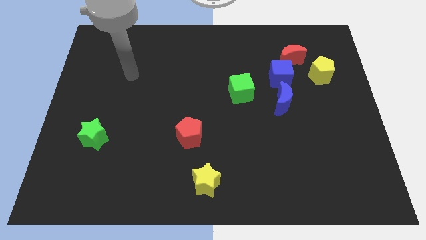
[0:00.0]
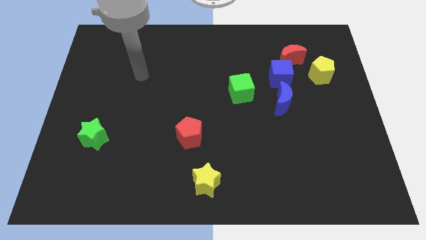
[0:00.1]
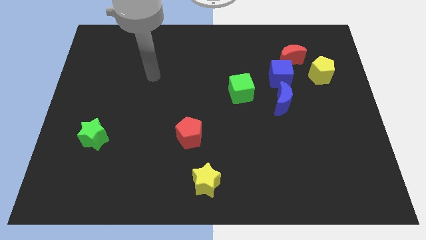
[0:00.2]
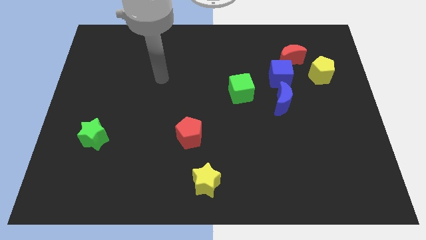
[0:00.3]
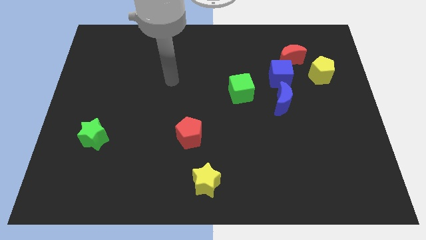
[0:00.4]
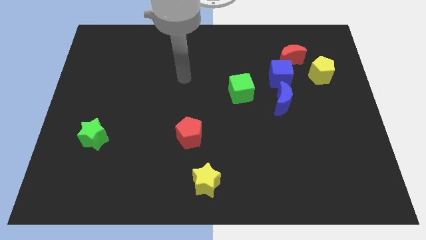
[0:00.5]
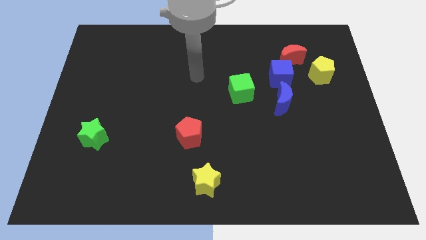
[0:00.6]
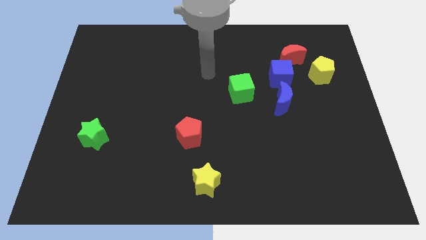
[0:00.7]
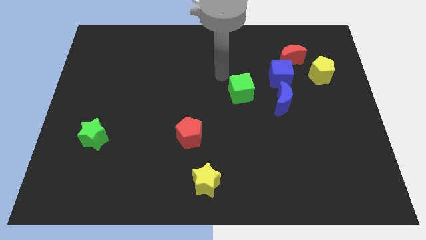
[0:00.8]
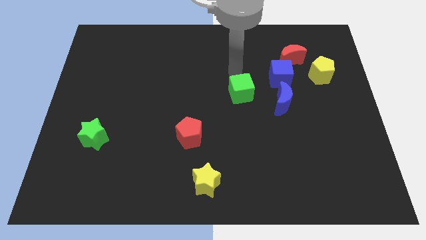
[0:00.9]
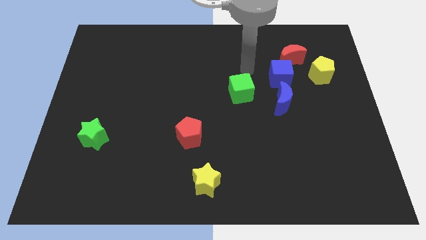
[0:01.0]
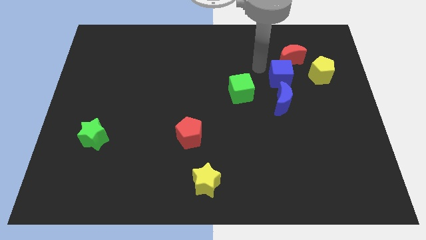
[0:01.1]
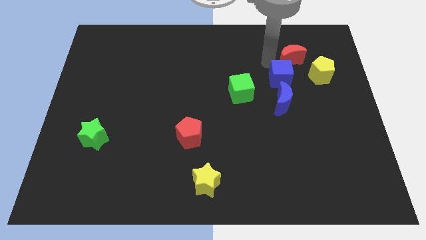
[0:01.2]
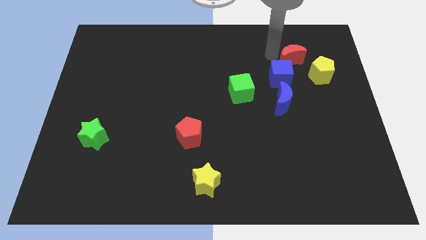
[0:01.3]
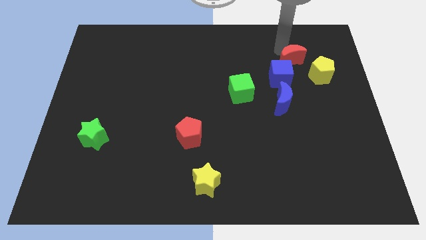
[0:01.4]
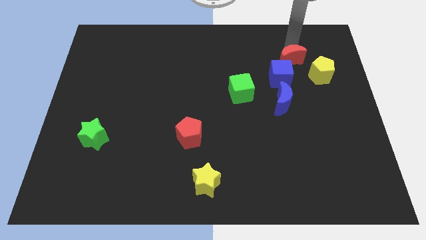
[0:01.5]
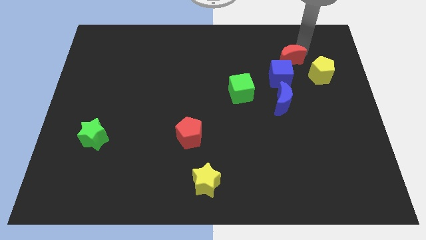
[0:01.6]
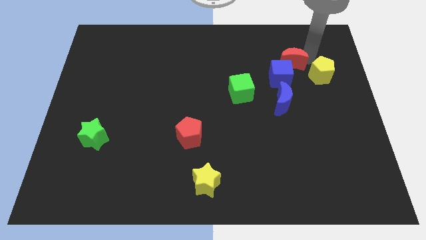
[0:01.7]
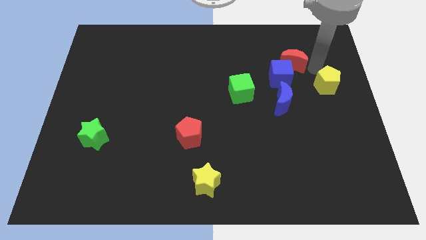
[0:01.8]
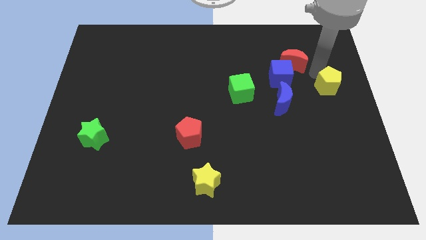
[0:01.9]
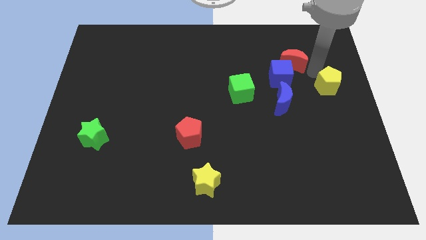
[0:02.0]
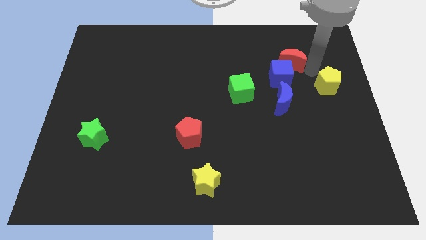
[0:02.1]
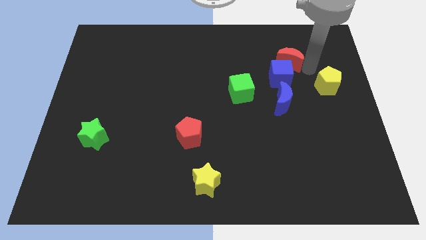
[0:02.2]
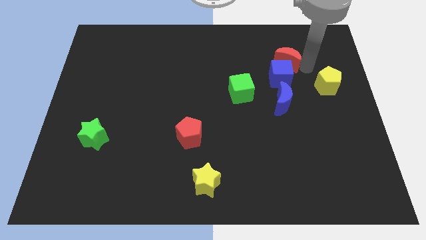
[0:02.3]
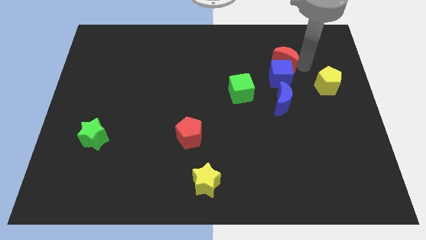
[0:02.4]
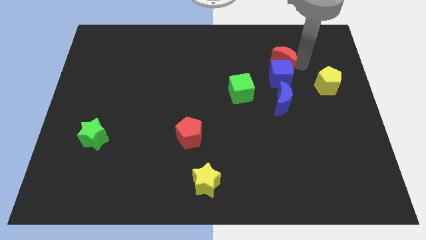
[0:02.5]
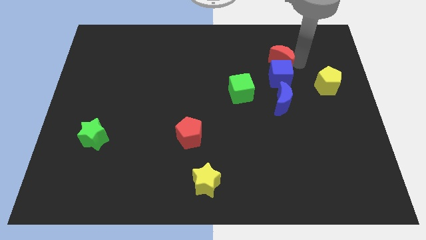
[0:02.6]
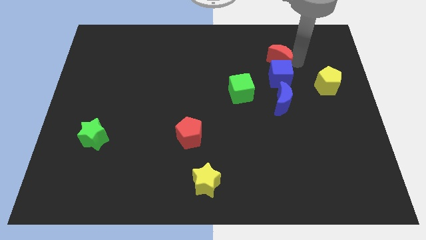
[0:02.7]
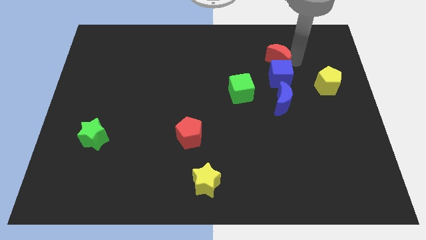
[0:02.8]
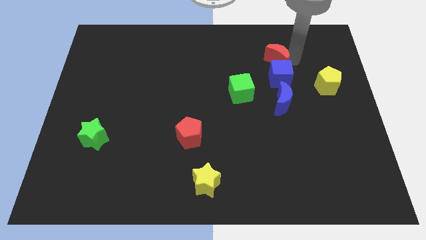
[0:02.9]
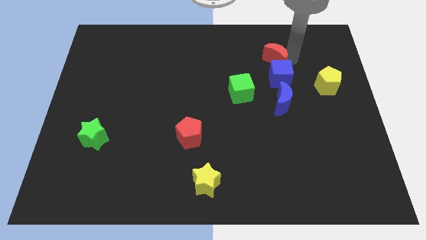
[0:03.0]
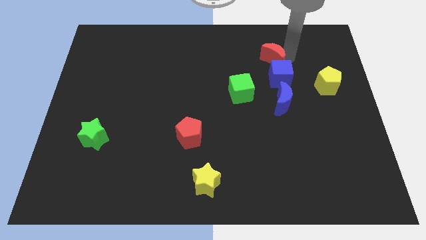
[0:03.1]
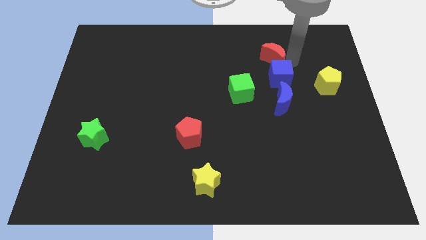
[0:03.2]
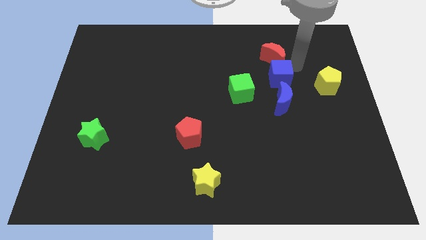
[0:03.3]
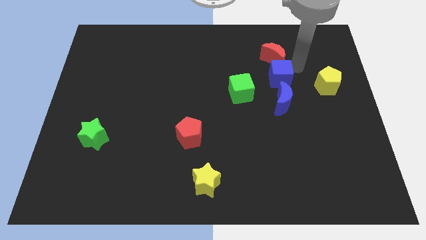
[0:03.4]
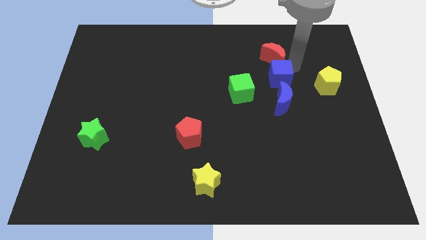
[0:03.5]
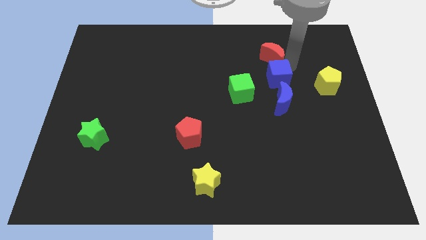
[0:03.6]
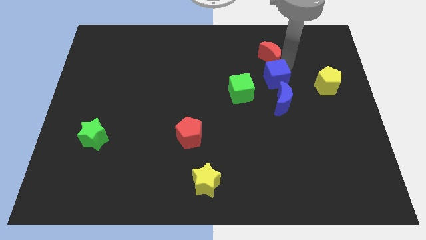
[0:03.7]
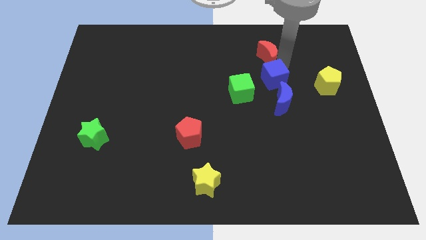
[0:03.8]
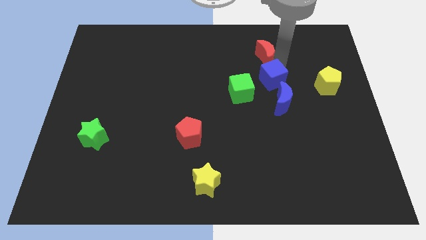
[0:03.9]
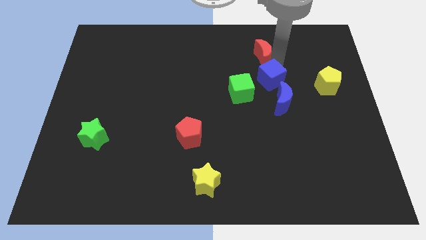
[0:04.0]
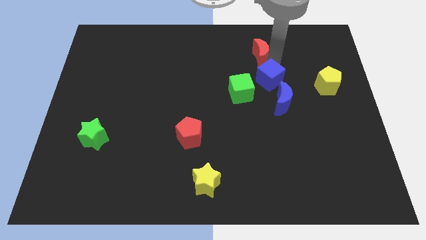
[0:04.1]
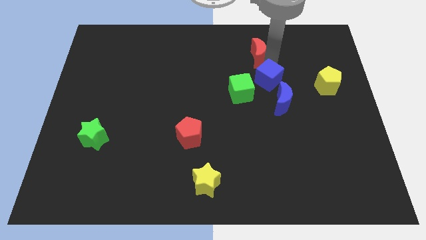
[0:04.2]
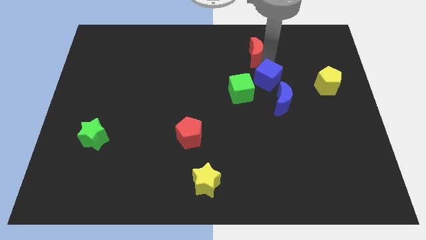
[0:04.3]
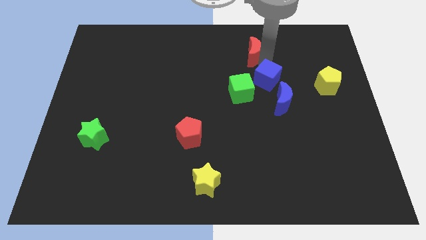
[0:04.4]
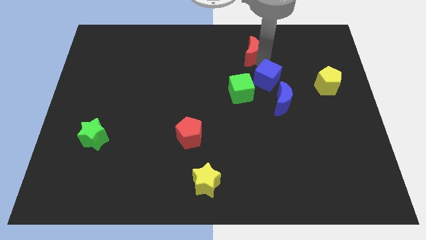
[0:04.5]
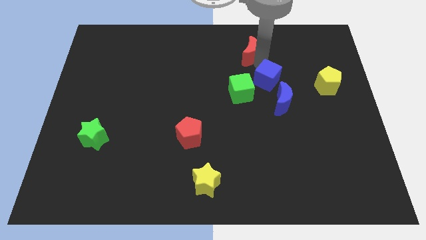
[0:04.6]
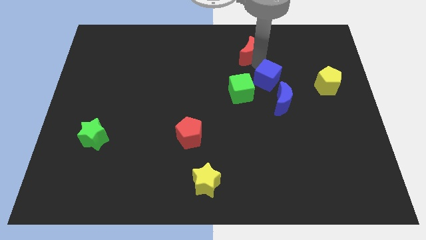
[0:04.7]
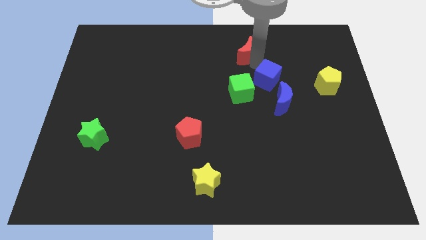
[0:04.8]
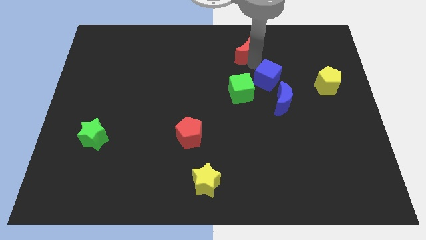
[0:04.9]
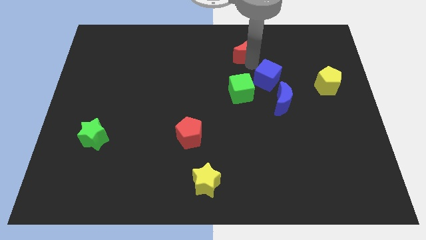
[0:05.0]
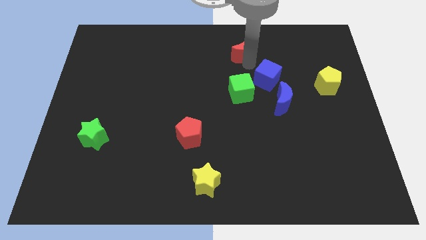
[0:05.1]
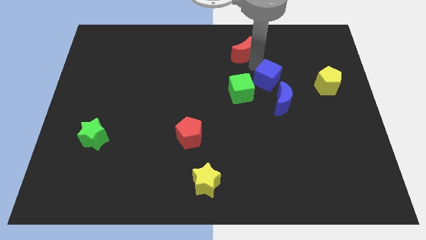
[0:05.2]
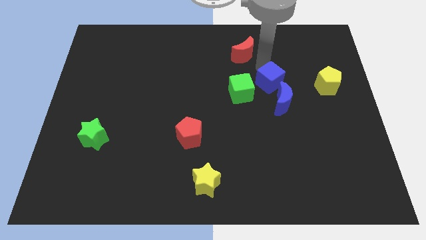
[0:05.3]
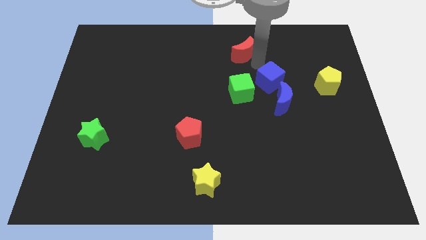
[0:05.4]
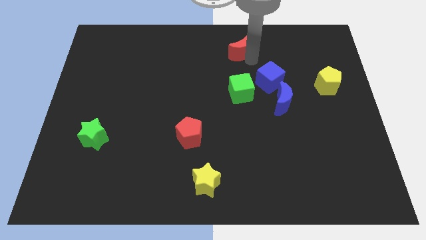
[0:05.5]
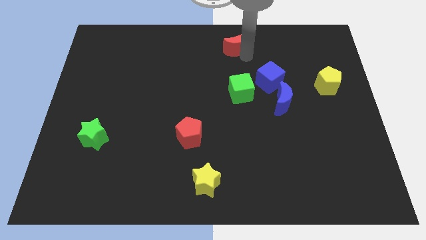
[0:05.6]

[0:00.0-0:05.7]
push the red moon to the top
